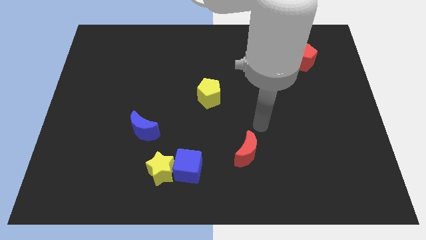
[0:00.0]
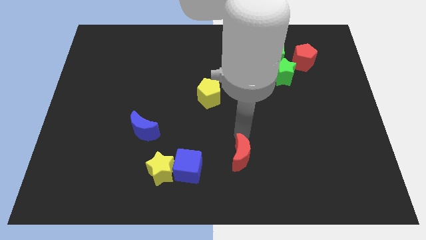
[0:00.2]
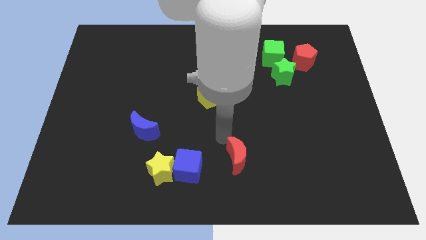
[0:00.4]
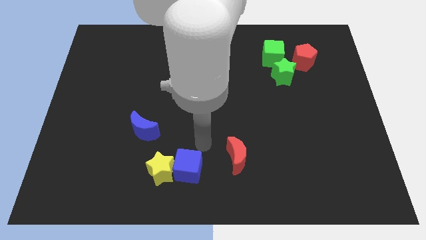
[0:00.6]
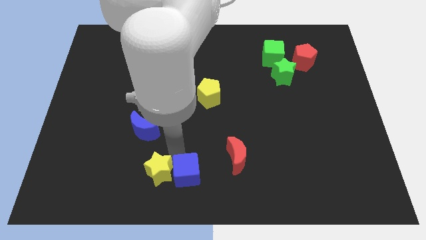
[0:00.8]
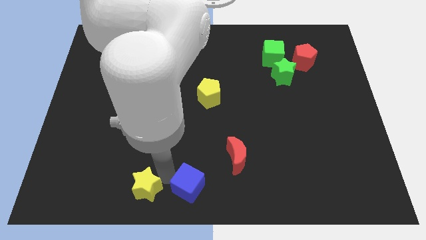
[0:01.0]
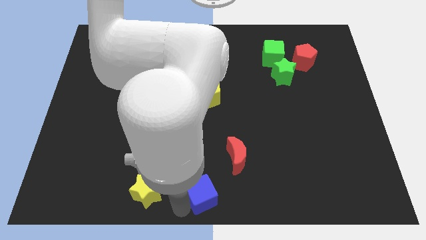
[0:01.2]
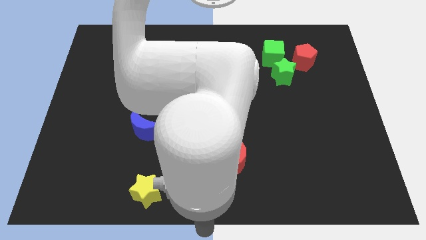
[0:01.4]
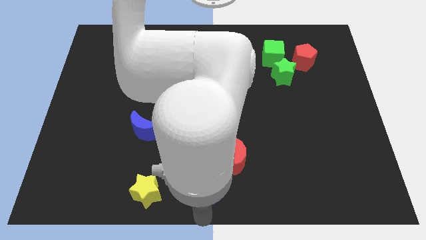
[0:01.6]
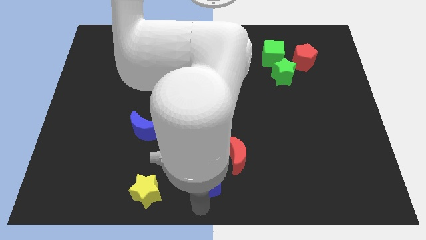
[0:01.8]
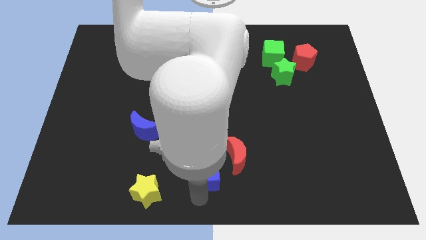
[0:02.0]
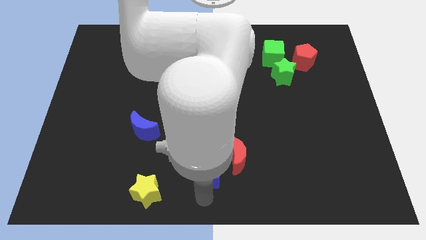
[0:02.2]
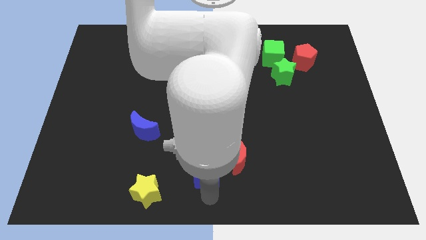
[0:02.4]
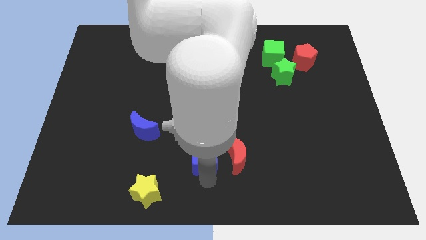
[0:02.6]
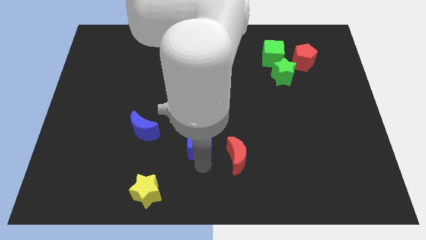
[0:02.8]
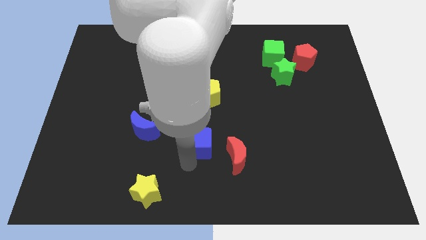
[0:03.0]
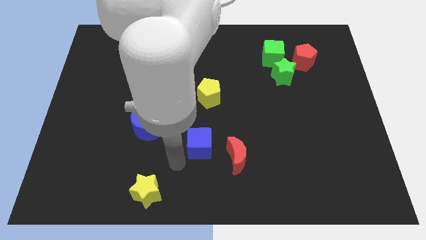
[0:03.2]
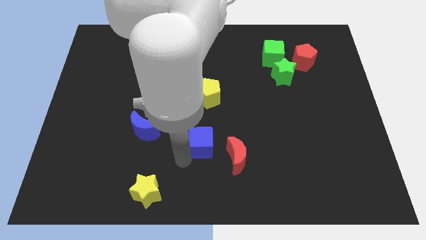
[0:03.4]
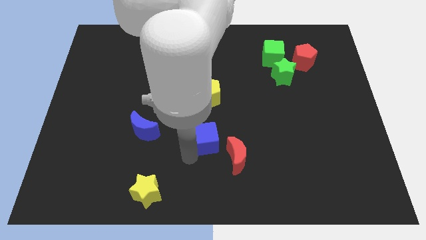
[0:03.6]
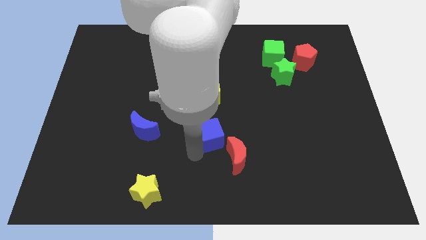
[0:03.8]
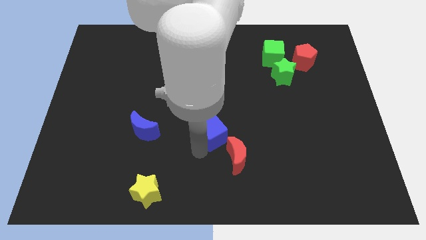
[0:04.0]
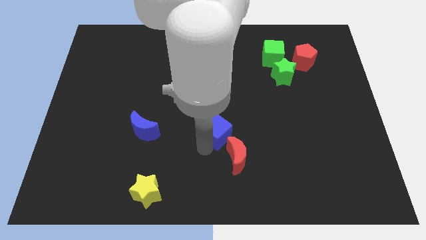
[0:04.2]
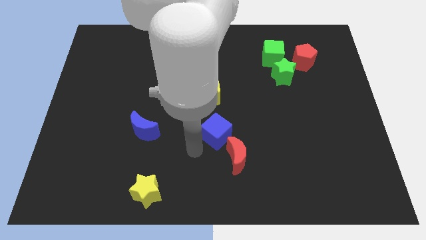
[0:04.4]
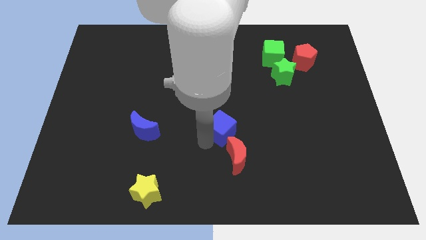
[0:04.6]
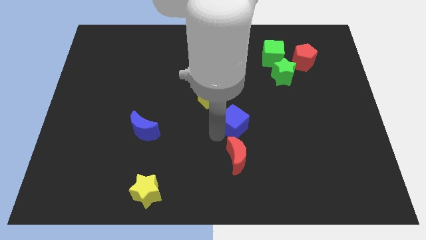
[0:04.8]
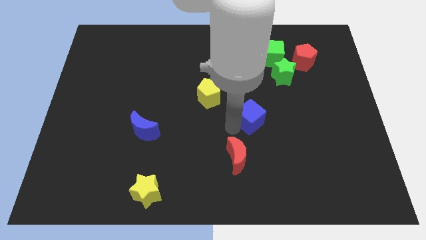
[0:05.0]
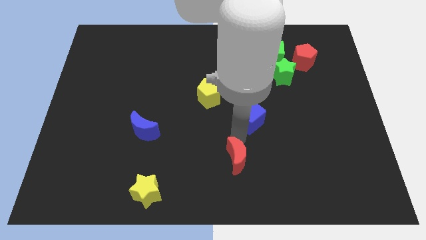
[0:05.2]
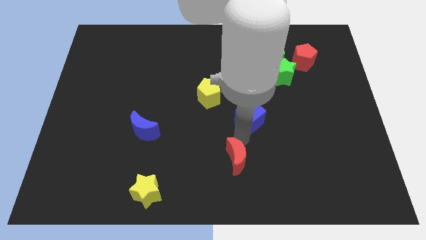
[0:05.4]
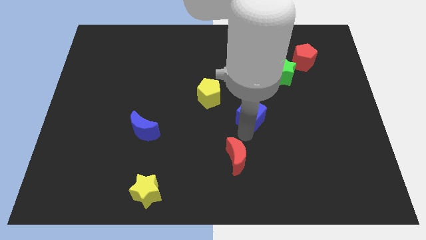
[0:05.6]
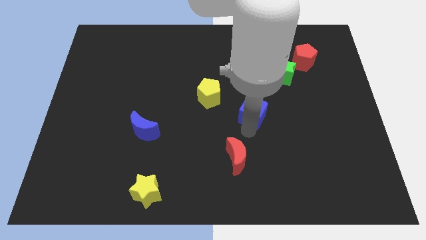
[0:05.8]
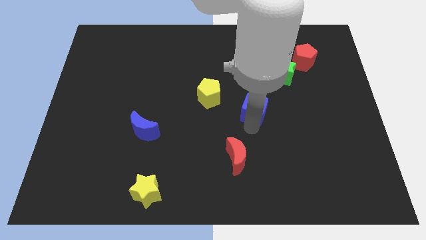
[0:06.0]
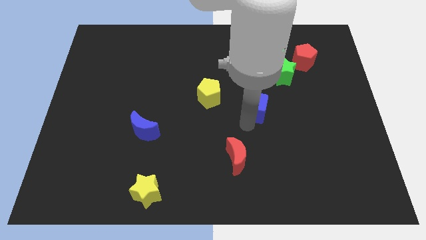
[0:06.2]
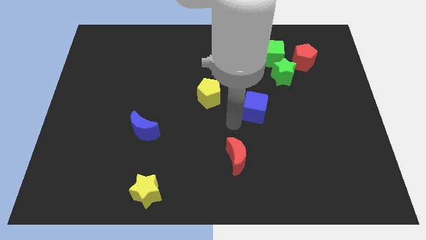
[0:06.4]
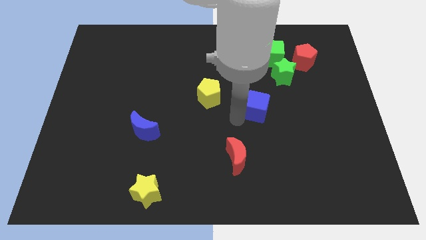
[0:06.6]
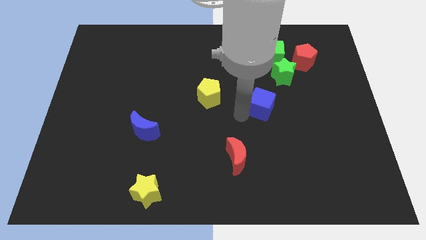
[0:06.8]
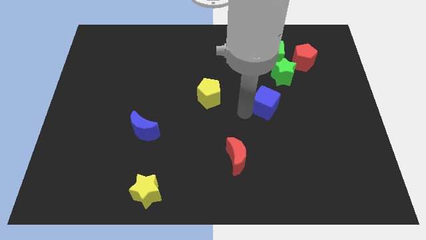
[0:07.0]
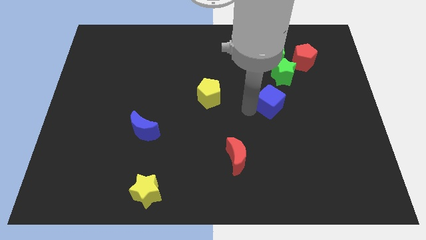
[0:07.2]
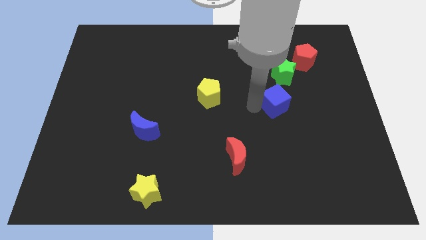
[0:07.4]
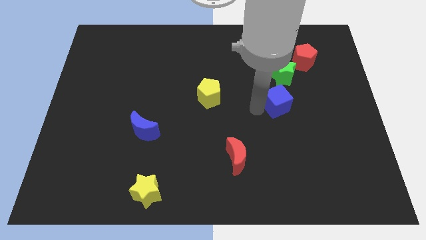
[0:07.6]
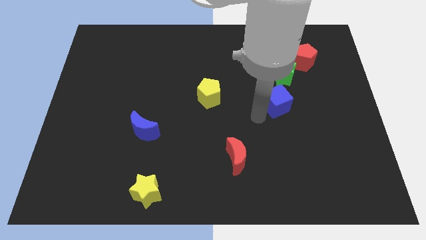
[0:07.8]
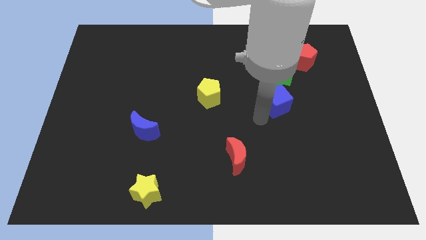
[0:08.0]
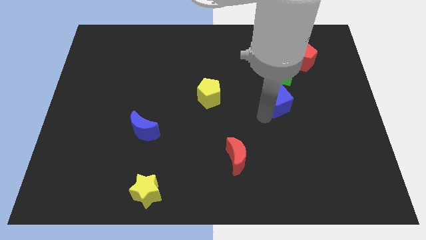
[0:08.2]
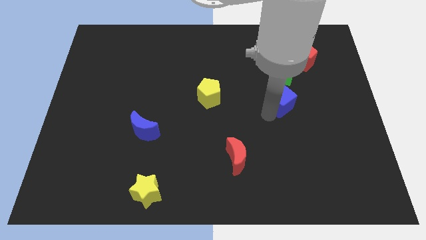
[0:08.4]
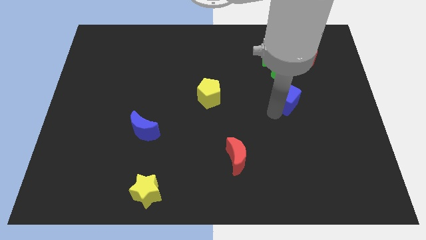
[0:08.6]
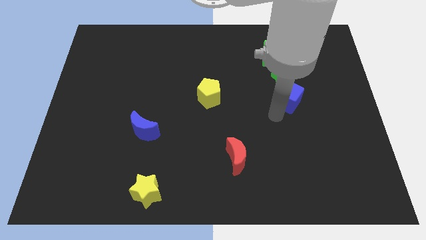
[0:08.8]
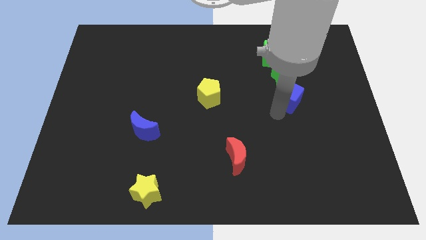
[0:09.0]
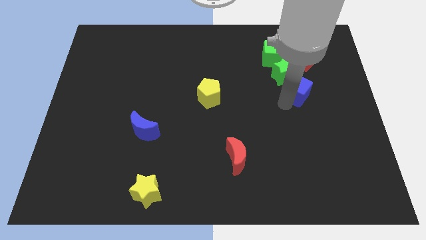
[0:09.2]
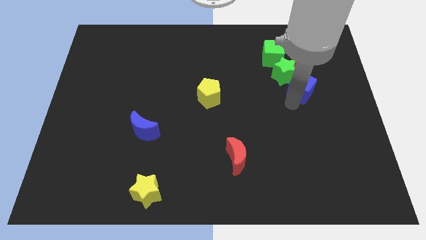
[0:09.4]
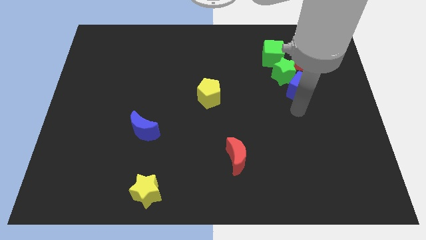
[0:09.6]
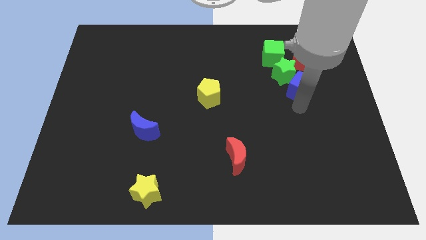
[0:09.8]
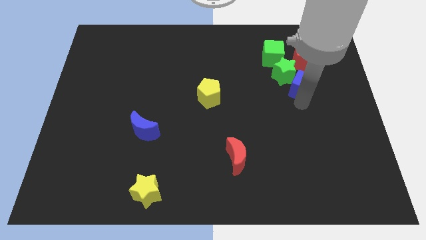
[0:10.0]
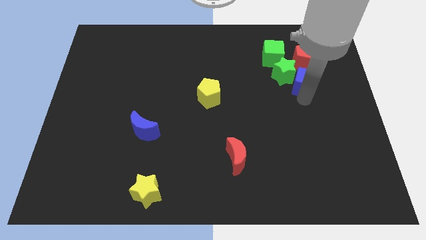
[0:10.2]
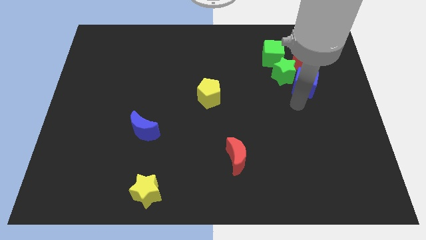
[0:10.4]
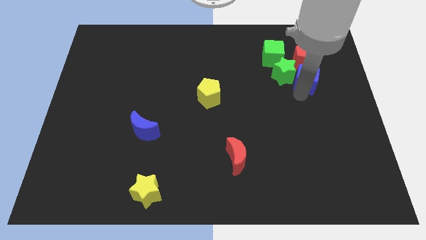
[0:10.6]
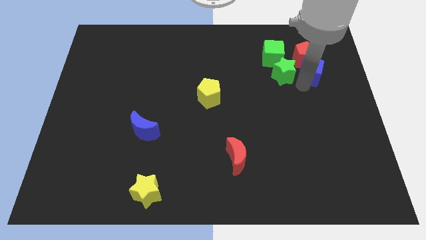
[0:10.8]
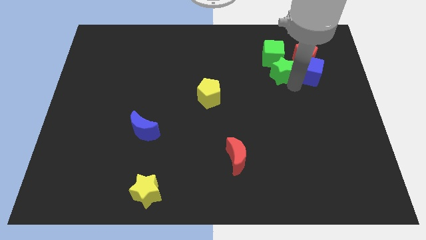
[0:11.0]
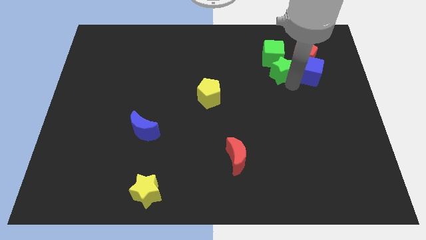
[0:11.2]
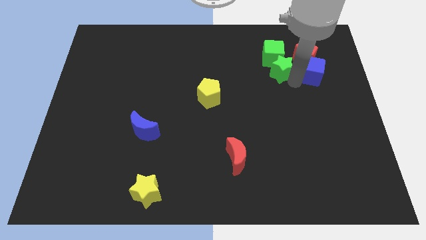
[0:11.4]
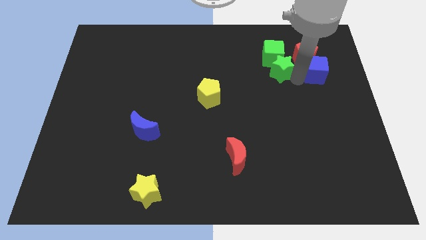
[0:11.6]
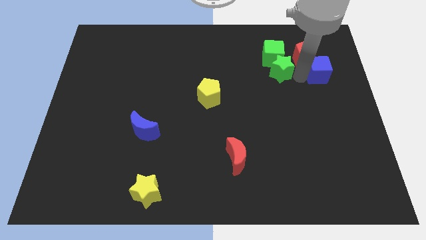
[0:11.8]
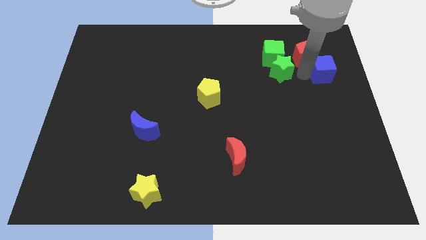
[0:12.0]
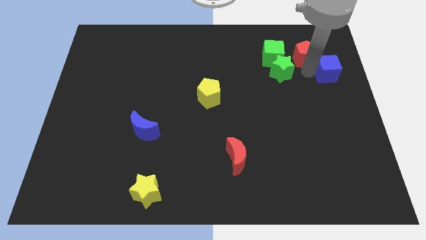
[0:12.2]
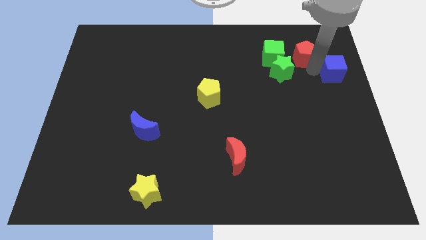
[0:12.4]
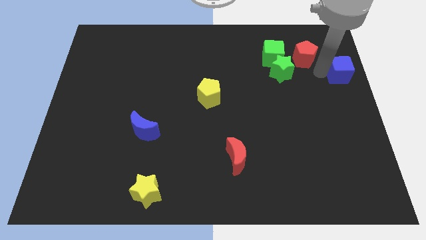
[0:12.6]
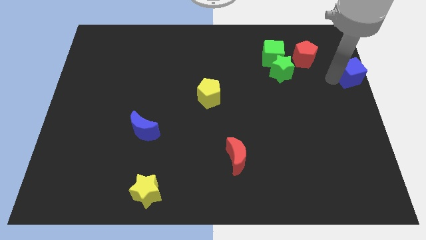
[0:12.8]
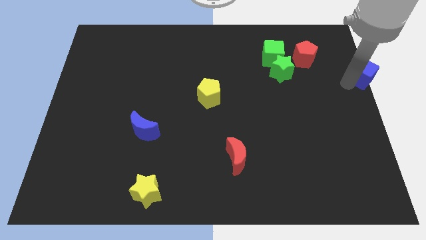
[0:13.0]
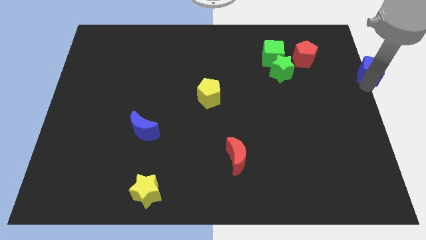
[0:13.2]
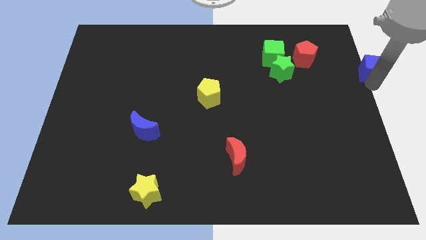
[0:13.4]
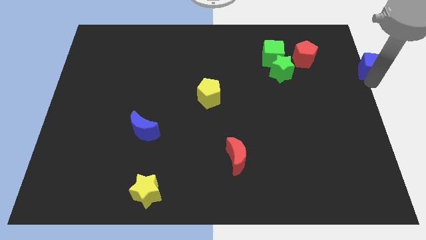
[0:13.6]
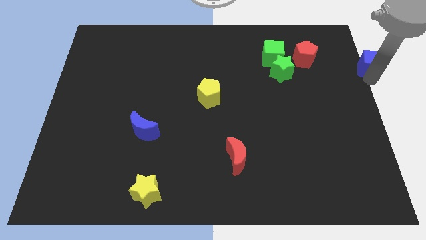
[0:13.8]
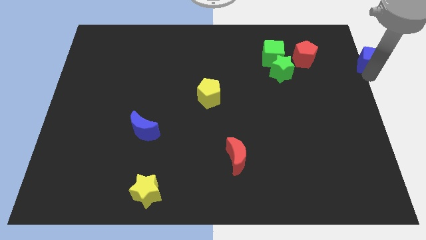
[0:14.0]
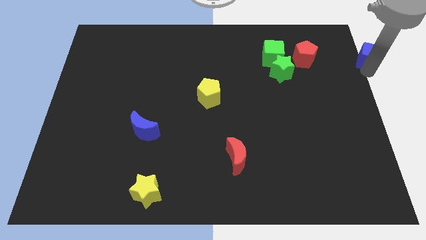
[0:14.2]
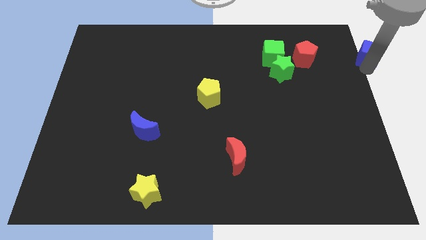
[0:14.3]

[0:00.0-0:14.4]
move the blue cube to the top right of the board
